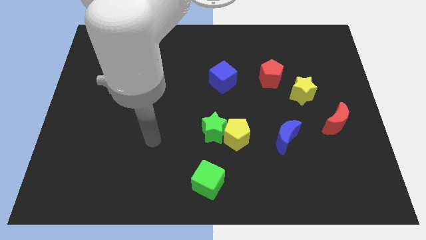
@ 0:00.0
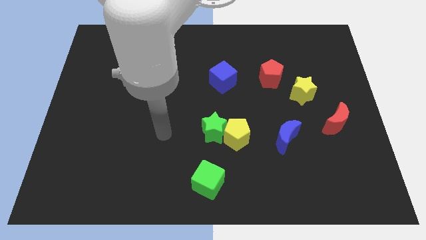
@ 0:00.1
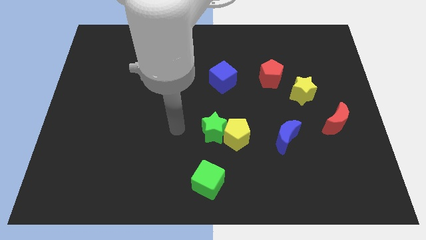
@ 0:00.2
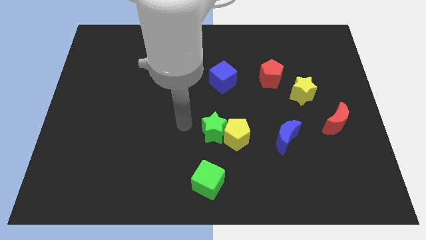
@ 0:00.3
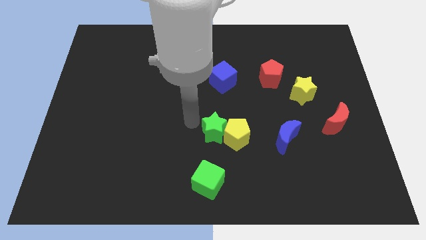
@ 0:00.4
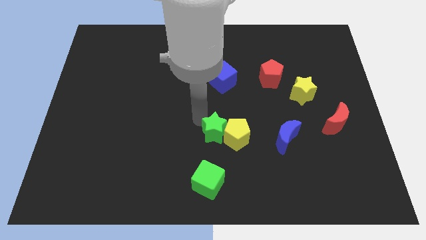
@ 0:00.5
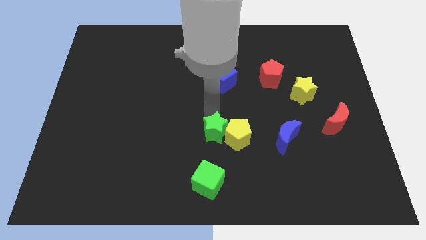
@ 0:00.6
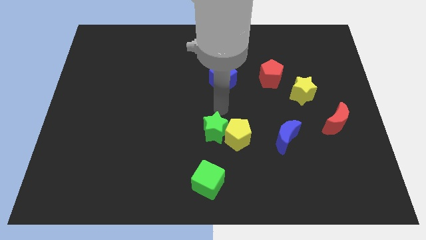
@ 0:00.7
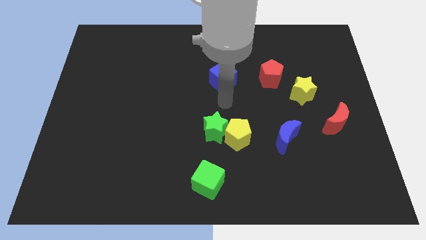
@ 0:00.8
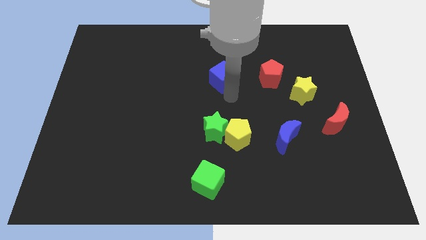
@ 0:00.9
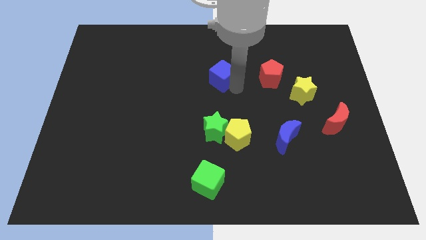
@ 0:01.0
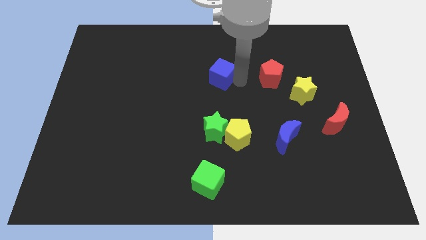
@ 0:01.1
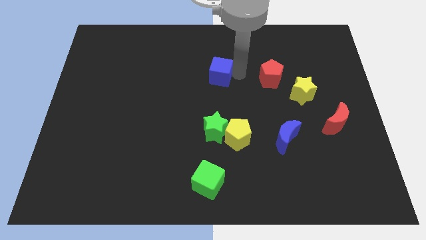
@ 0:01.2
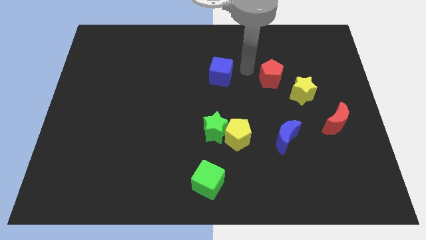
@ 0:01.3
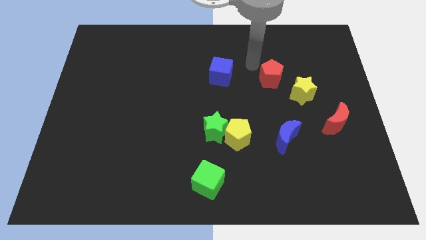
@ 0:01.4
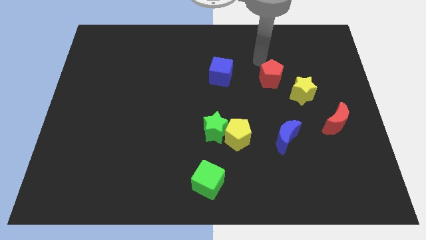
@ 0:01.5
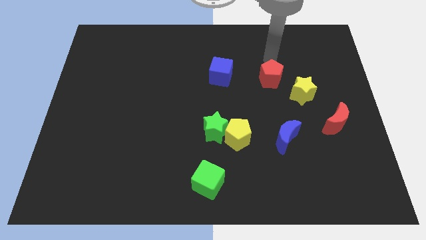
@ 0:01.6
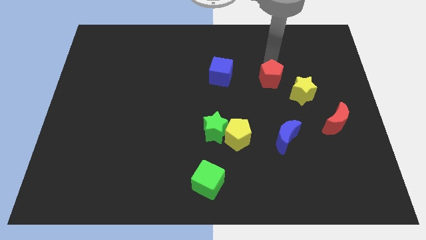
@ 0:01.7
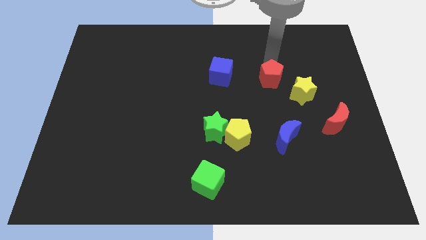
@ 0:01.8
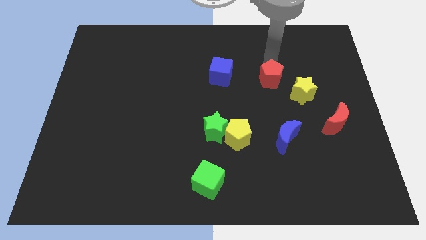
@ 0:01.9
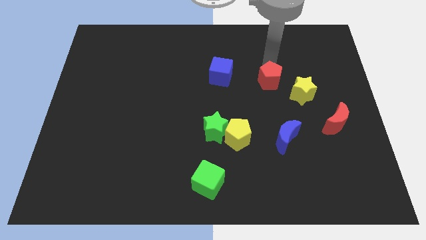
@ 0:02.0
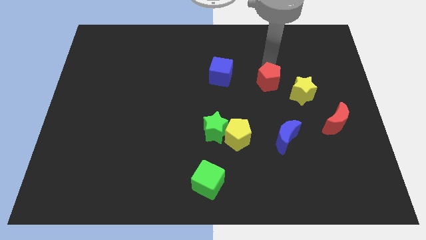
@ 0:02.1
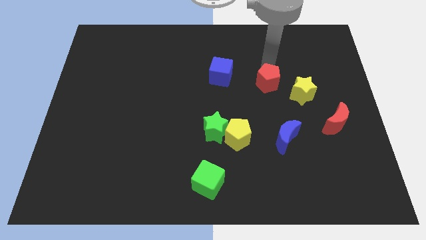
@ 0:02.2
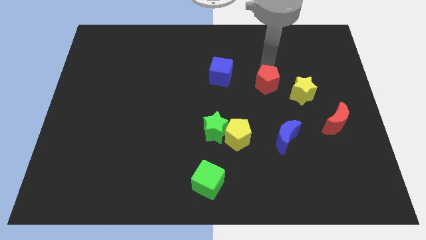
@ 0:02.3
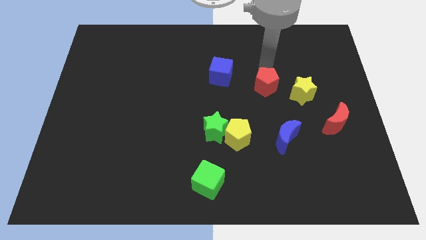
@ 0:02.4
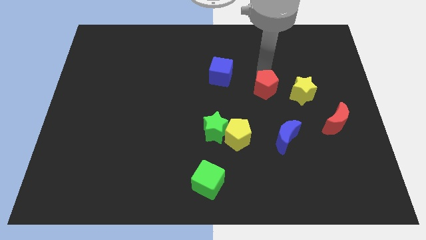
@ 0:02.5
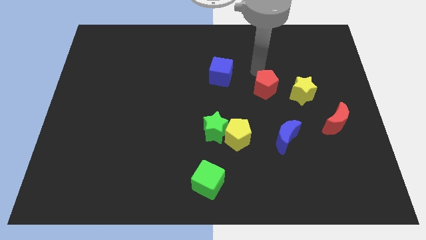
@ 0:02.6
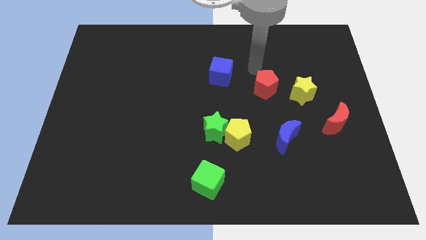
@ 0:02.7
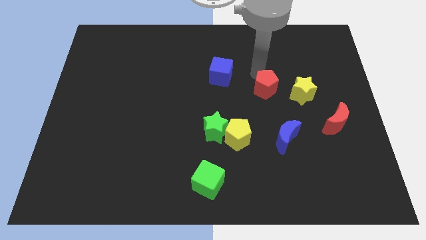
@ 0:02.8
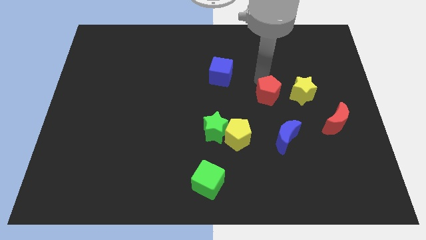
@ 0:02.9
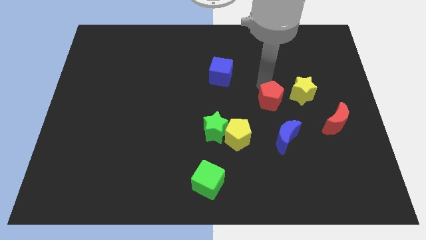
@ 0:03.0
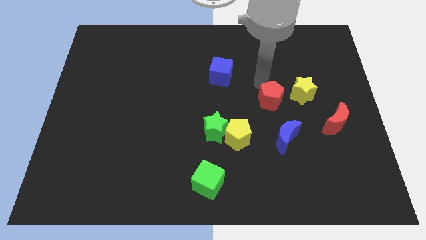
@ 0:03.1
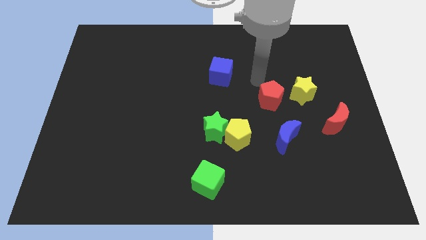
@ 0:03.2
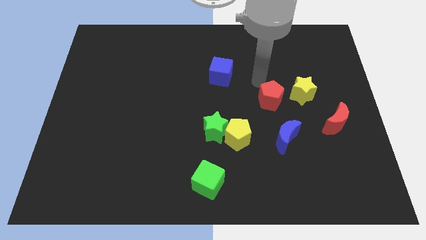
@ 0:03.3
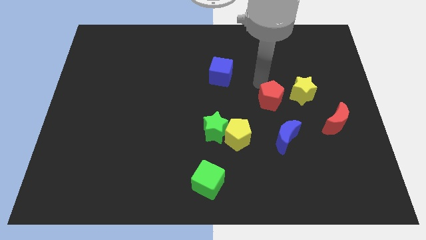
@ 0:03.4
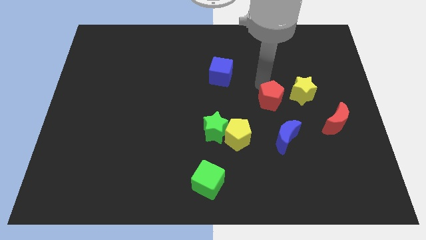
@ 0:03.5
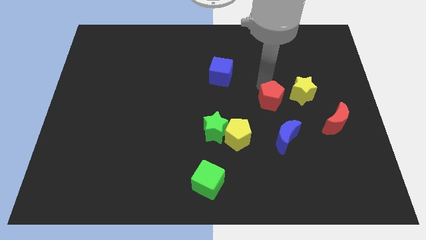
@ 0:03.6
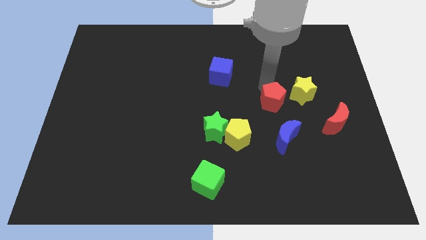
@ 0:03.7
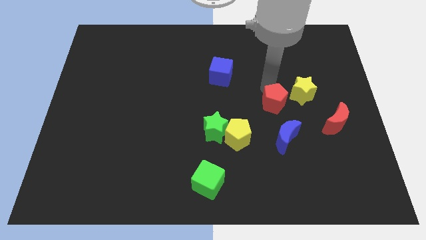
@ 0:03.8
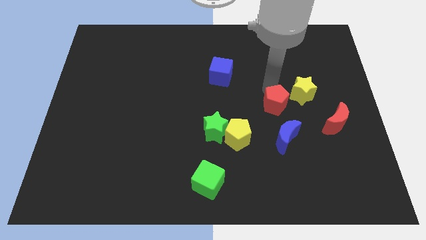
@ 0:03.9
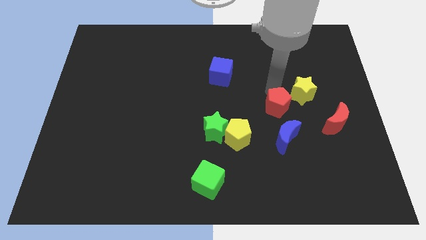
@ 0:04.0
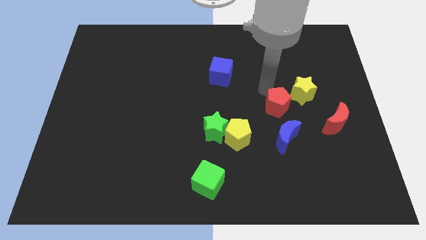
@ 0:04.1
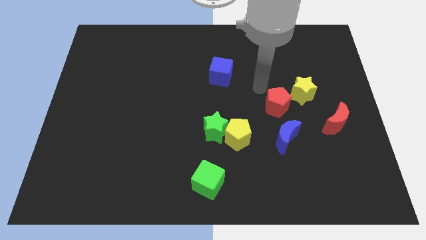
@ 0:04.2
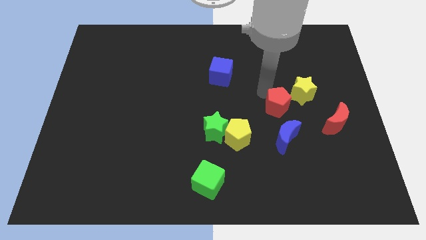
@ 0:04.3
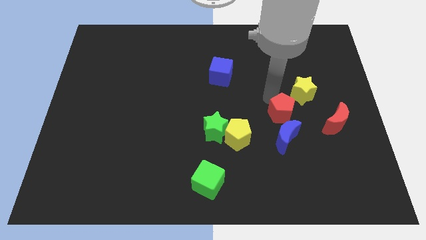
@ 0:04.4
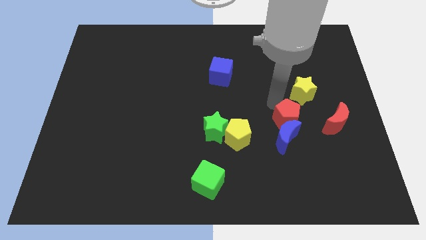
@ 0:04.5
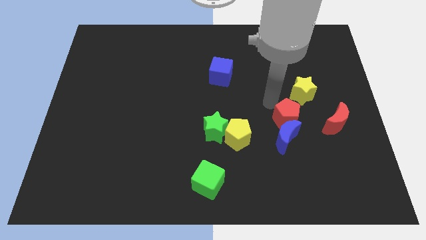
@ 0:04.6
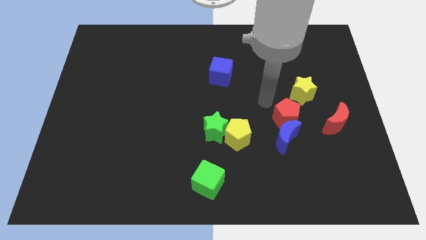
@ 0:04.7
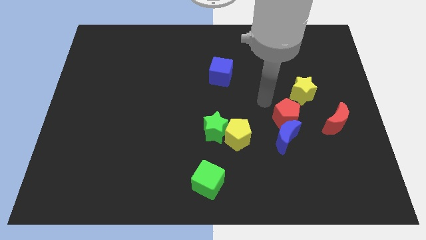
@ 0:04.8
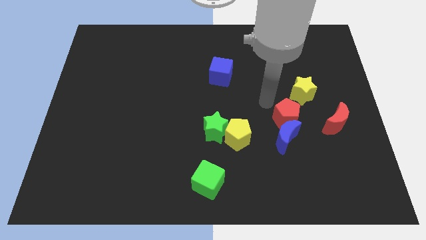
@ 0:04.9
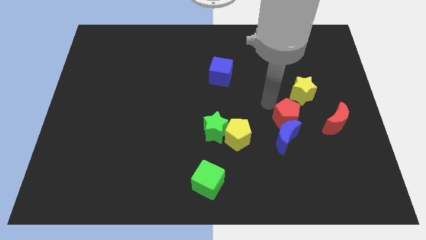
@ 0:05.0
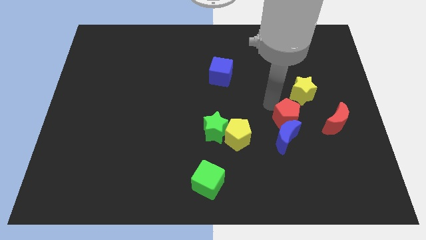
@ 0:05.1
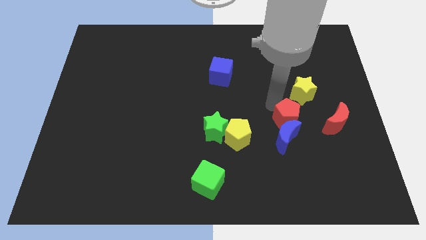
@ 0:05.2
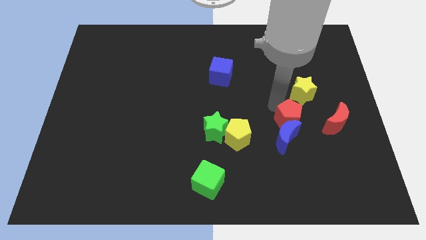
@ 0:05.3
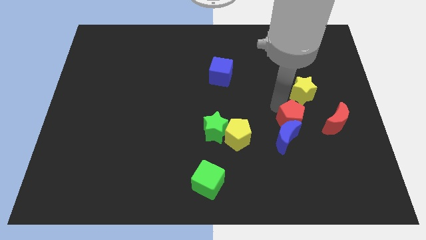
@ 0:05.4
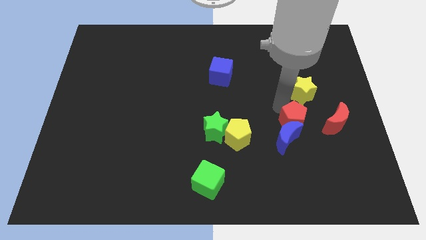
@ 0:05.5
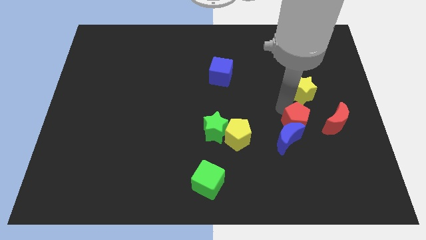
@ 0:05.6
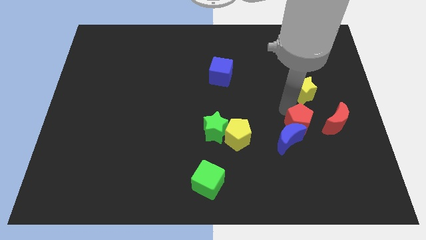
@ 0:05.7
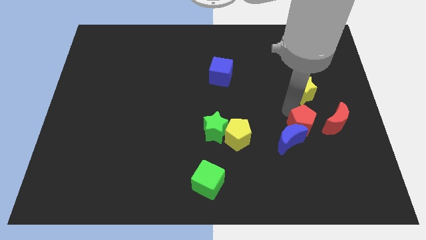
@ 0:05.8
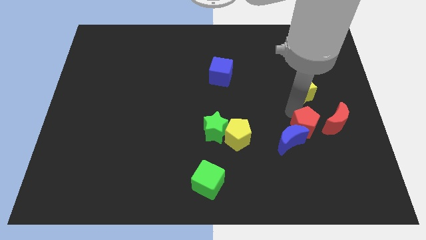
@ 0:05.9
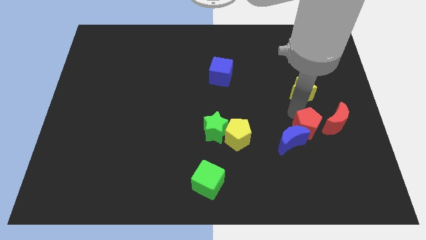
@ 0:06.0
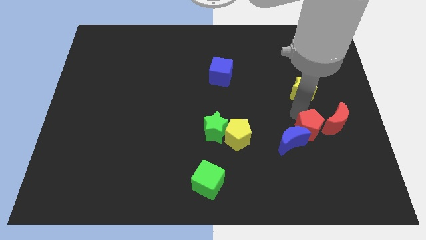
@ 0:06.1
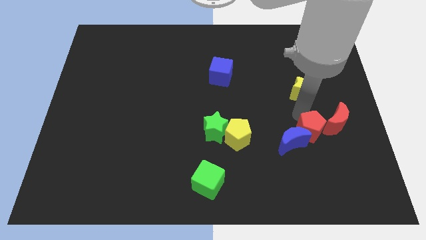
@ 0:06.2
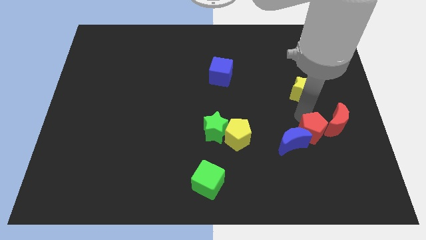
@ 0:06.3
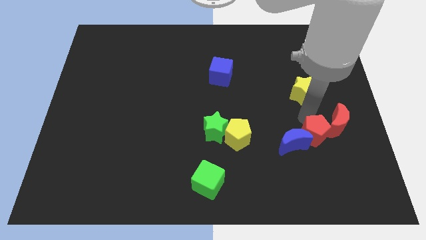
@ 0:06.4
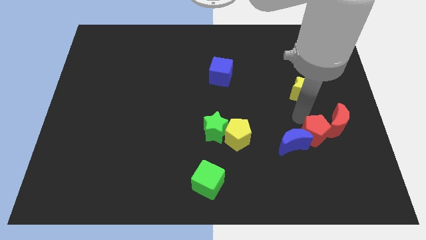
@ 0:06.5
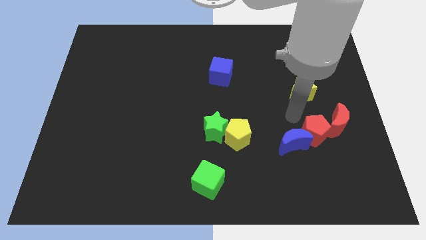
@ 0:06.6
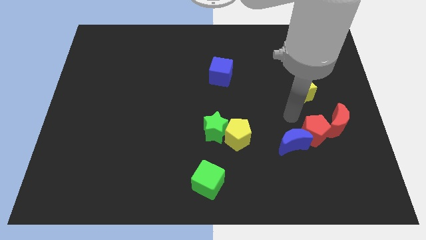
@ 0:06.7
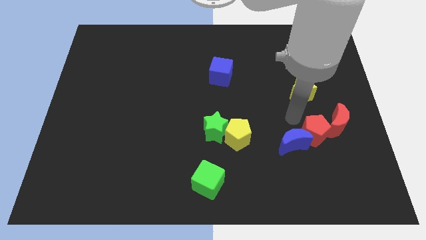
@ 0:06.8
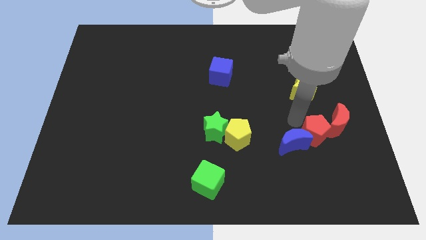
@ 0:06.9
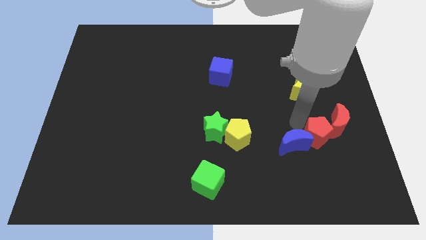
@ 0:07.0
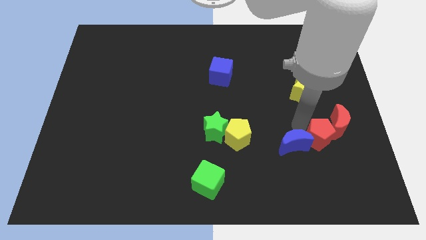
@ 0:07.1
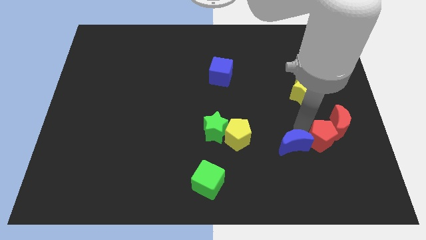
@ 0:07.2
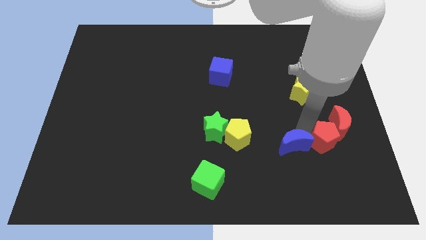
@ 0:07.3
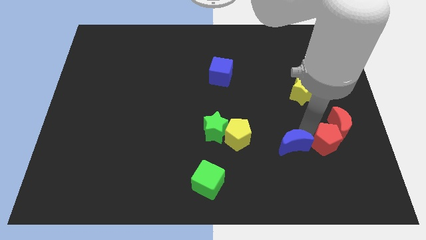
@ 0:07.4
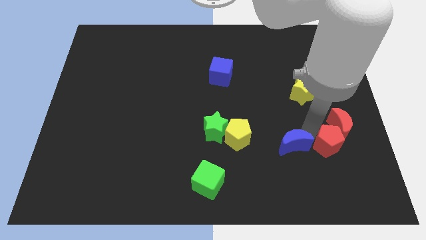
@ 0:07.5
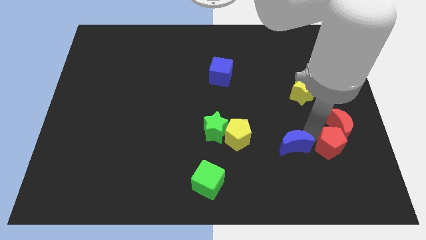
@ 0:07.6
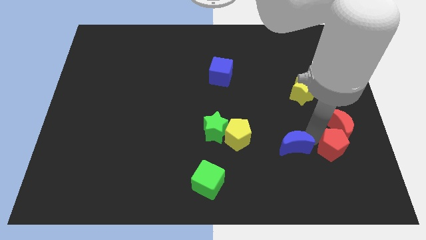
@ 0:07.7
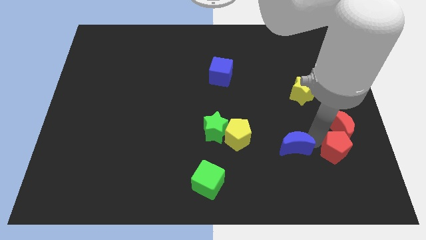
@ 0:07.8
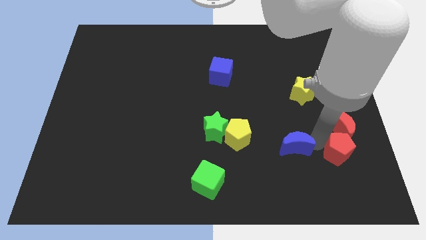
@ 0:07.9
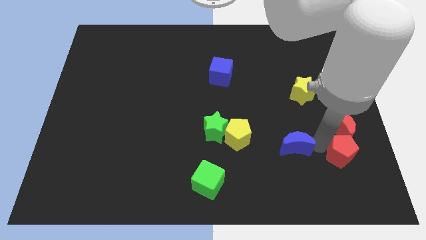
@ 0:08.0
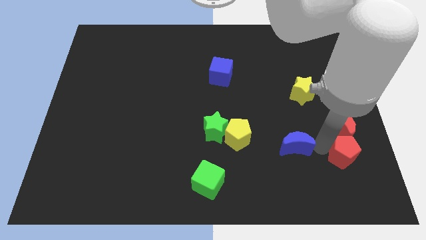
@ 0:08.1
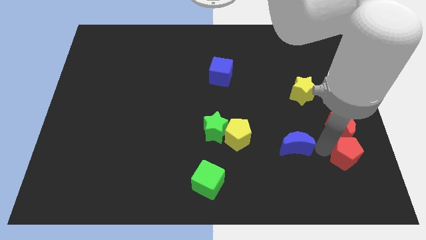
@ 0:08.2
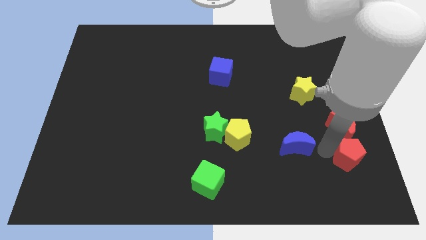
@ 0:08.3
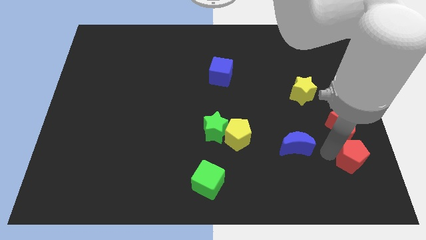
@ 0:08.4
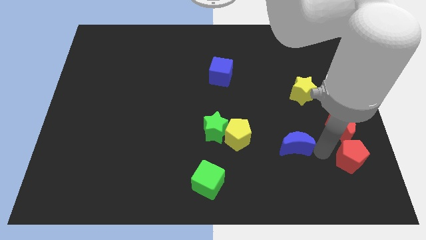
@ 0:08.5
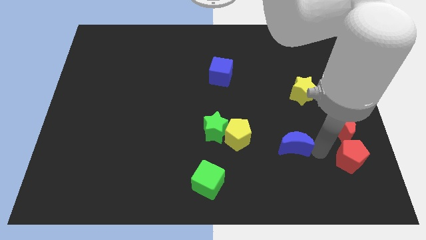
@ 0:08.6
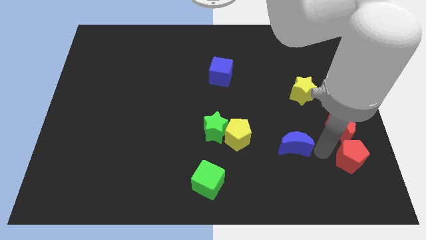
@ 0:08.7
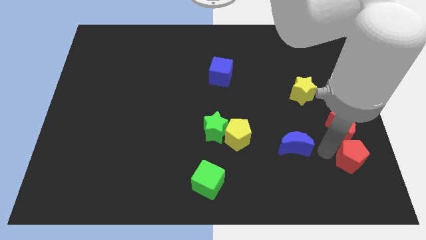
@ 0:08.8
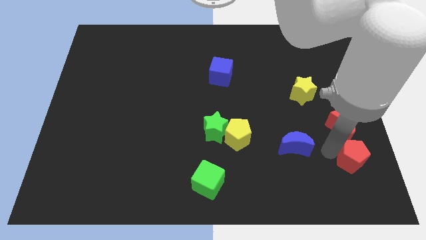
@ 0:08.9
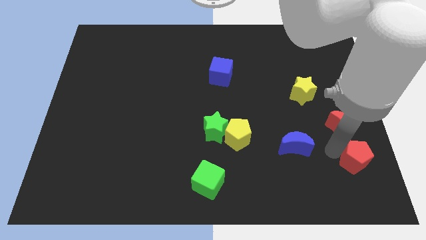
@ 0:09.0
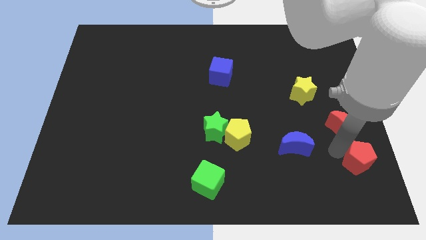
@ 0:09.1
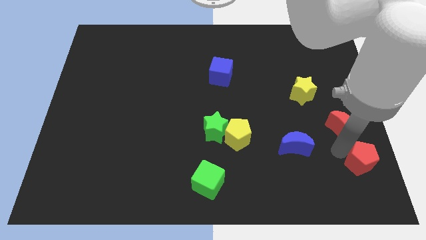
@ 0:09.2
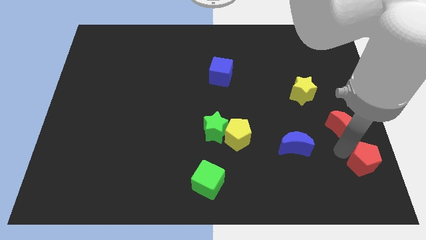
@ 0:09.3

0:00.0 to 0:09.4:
slide the red pentagon to the bottom right corner
